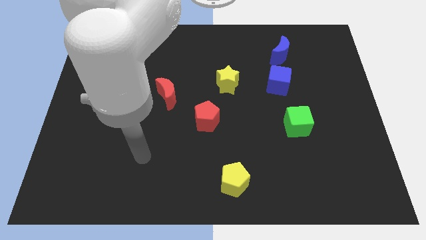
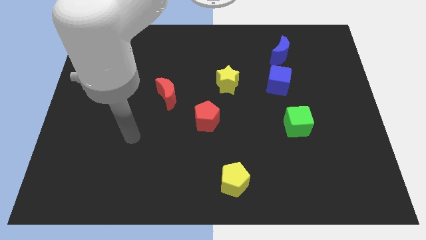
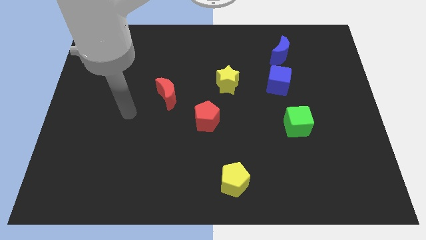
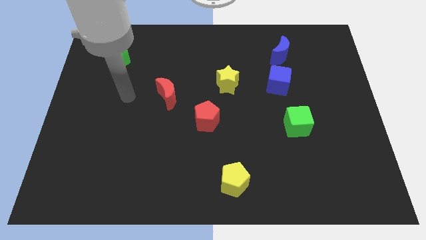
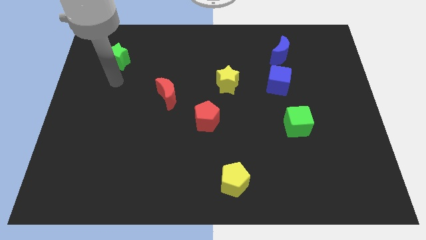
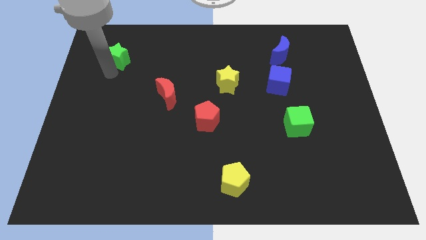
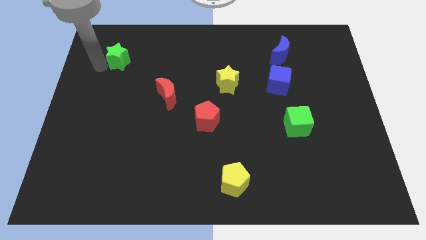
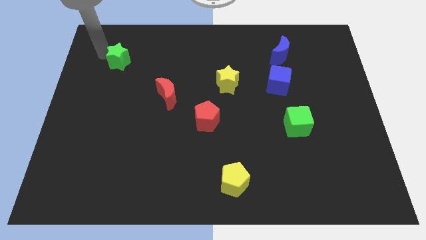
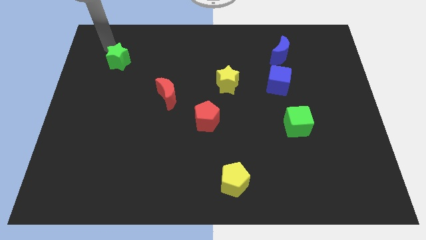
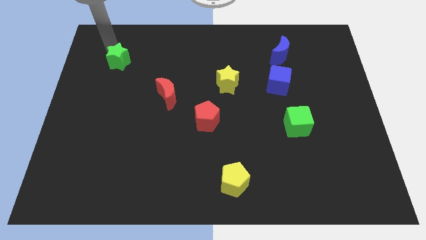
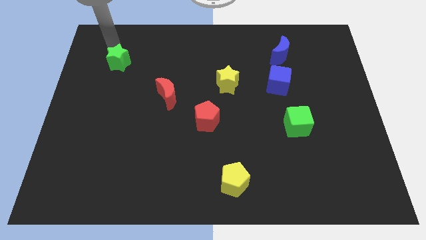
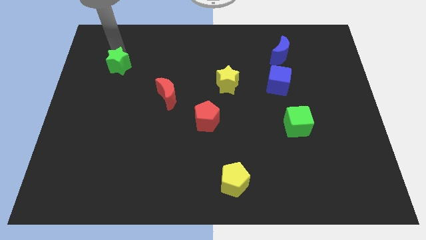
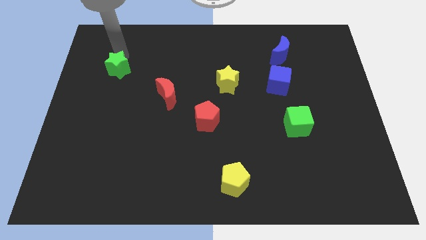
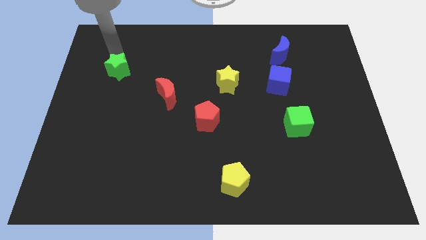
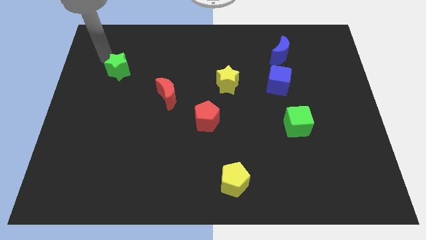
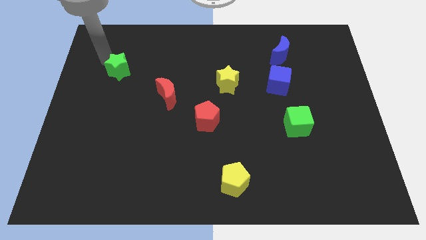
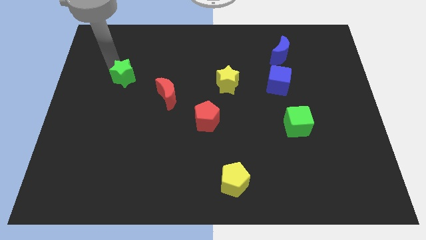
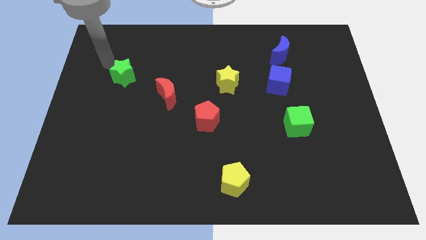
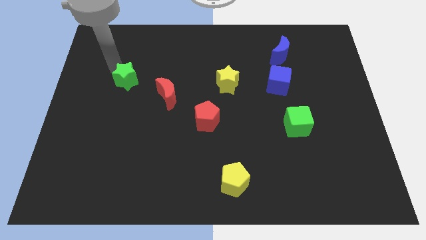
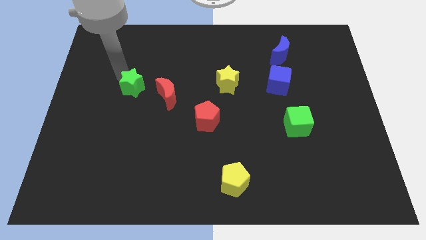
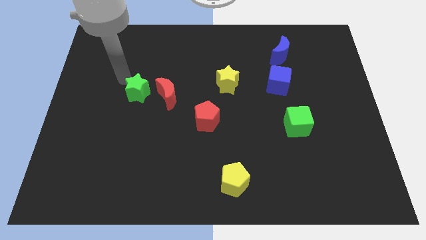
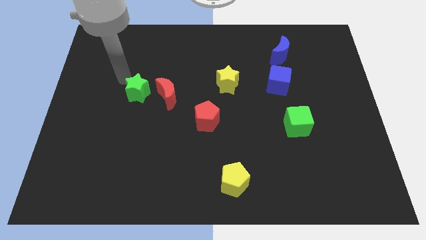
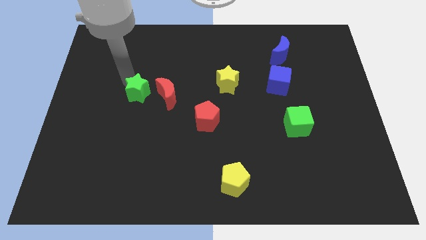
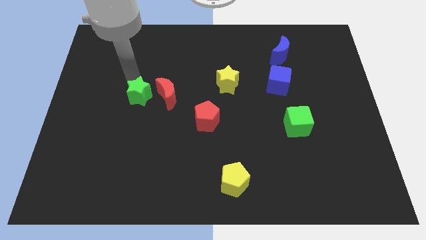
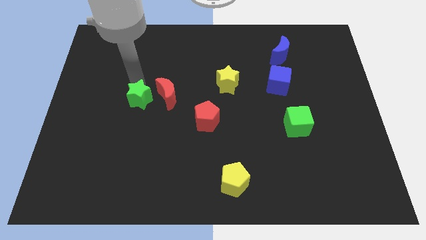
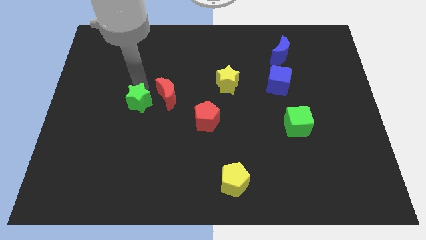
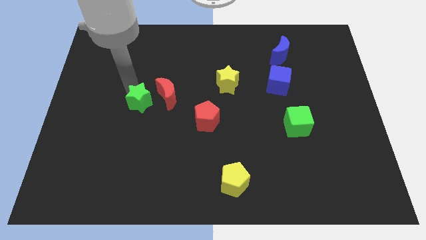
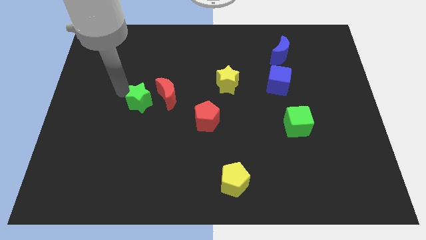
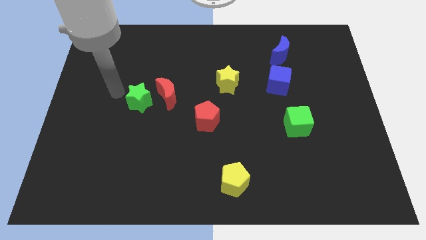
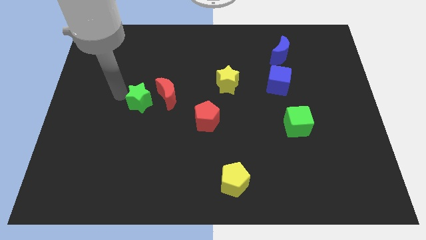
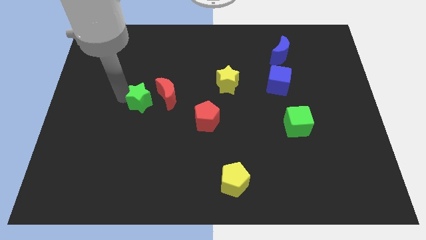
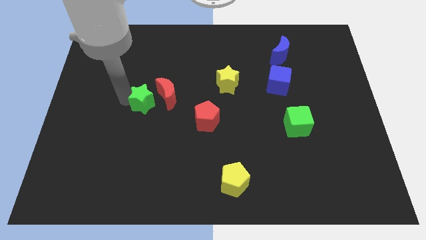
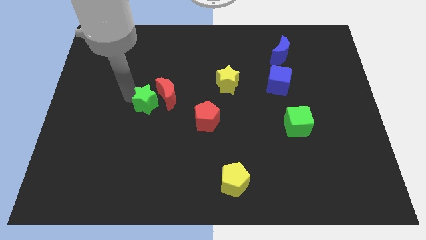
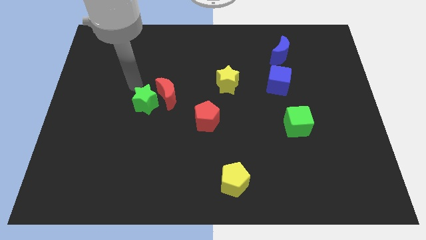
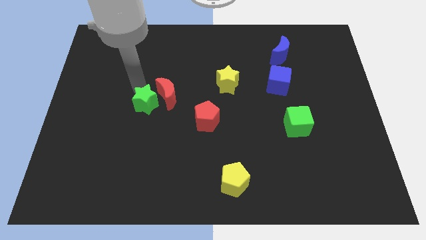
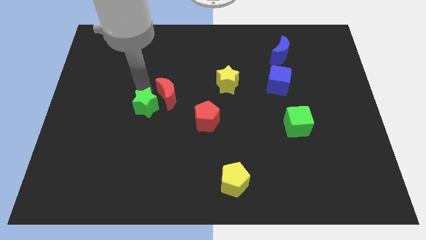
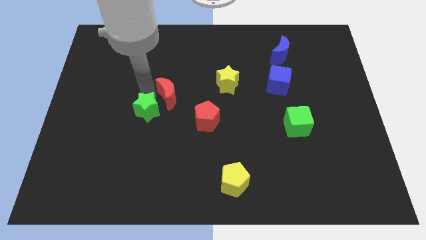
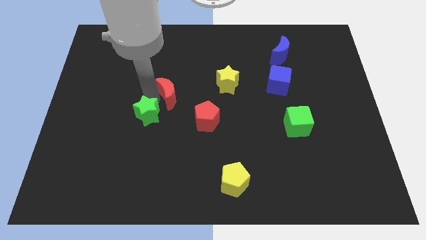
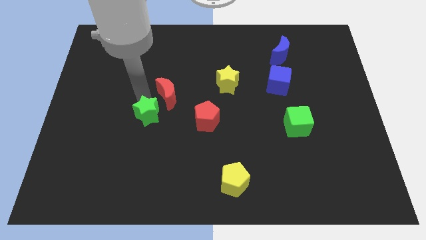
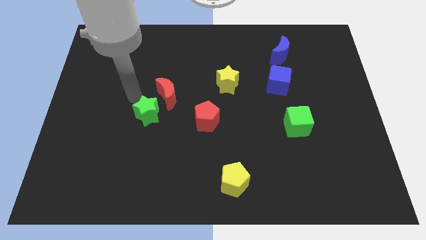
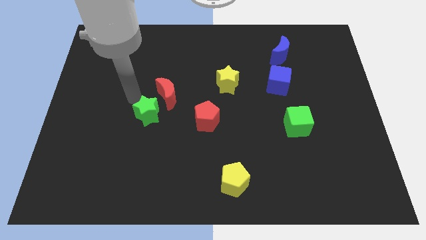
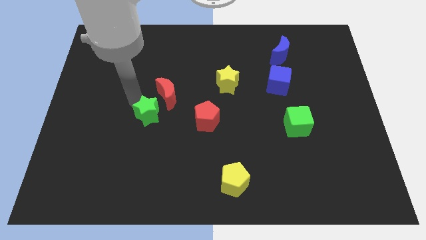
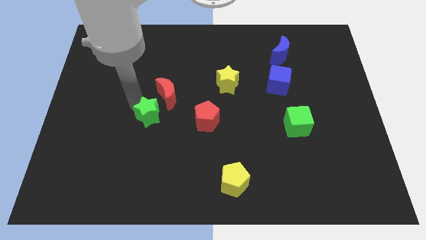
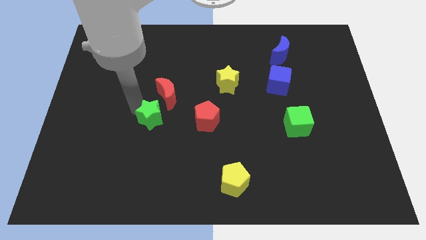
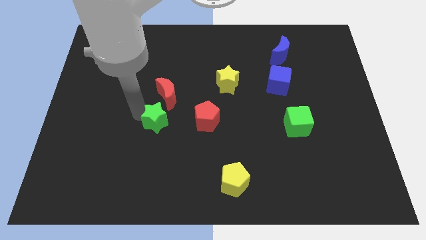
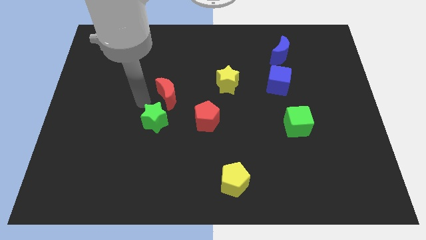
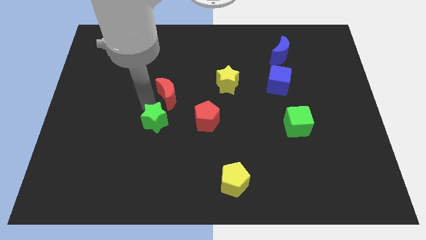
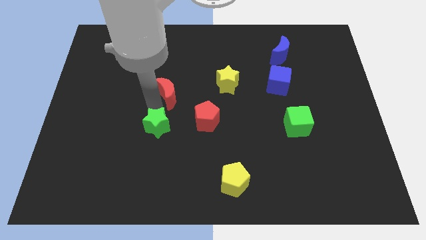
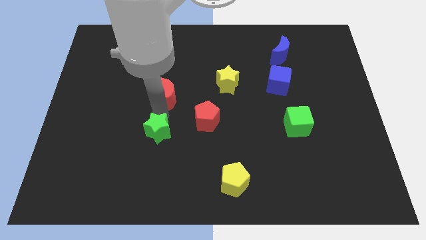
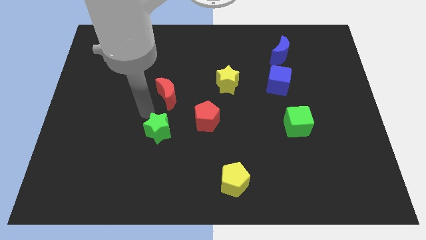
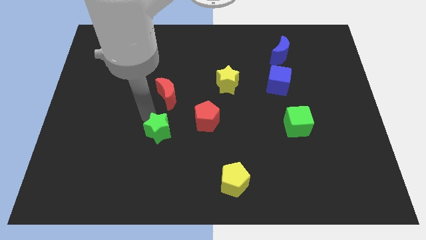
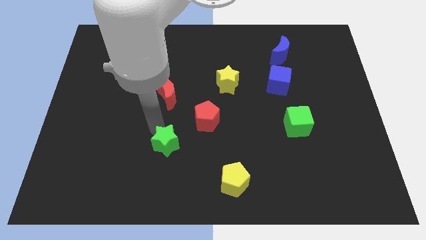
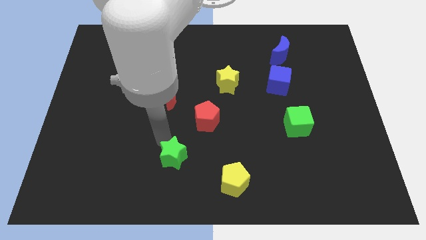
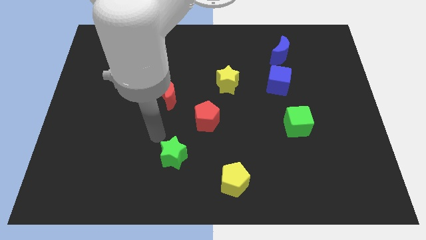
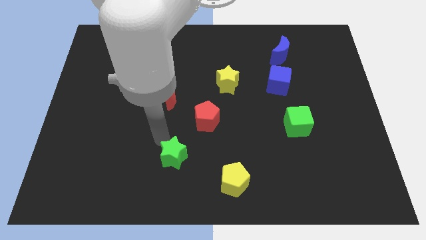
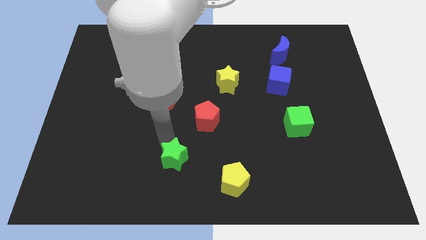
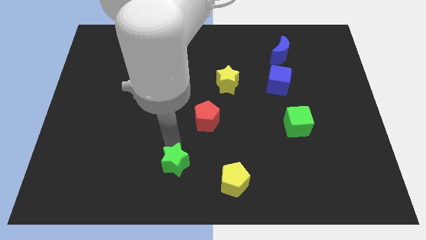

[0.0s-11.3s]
slide the green star to the bottom side
